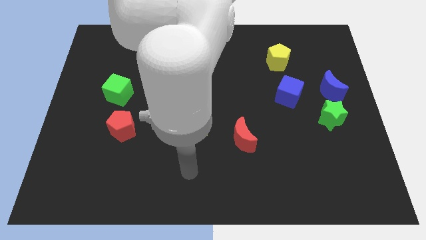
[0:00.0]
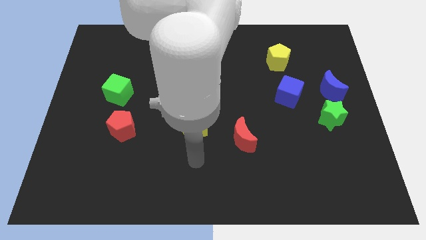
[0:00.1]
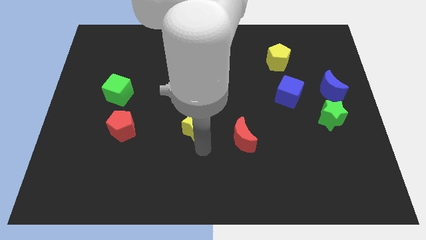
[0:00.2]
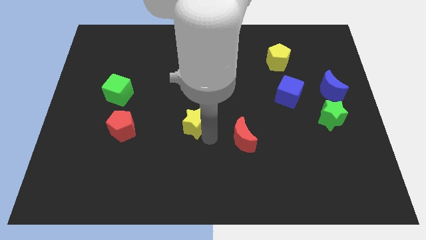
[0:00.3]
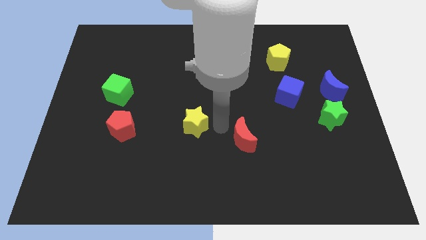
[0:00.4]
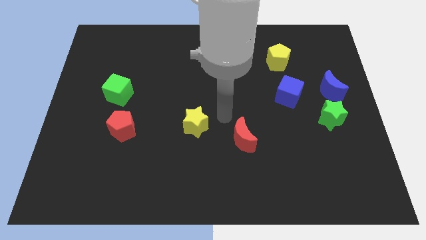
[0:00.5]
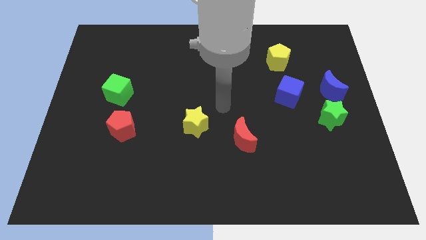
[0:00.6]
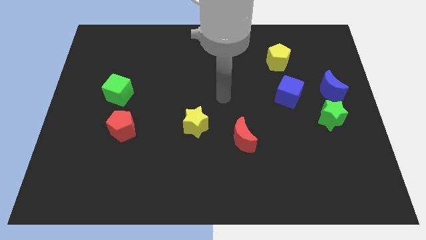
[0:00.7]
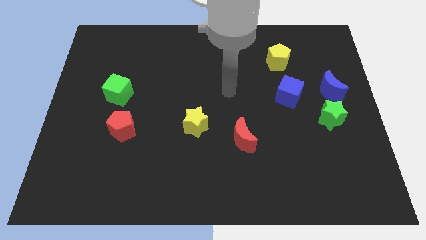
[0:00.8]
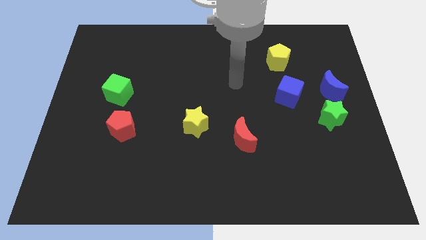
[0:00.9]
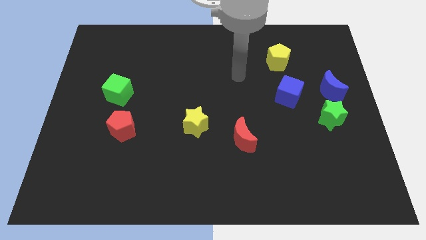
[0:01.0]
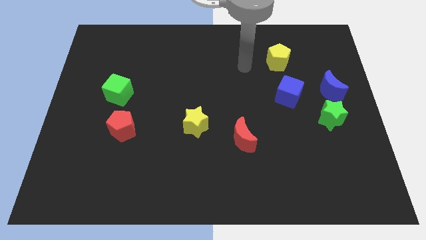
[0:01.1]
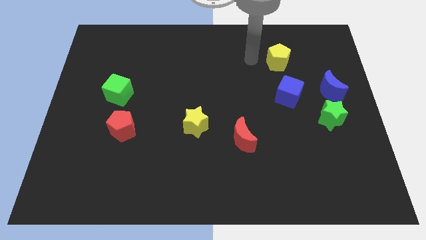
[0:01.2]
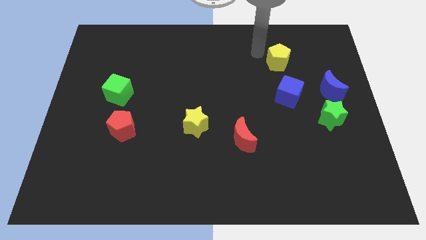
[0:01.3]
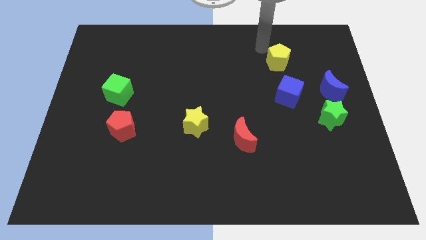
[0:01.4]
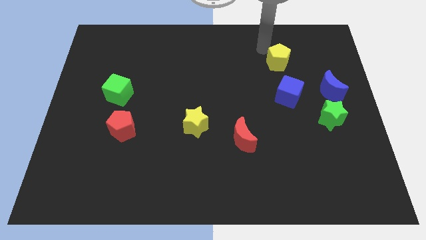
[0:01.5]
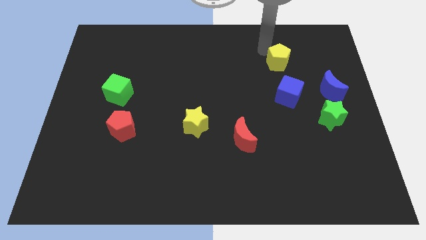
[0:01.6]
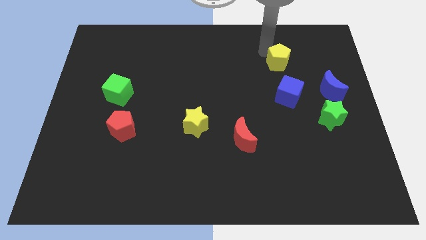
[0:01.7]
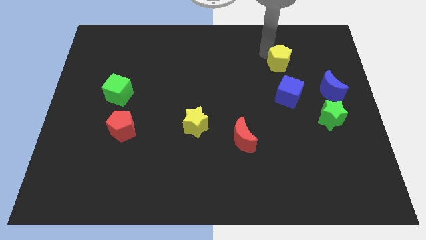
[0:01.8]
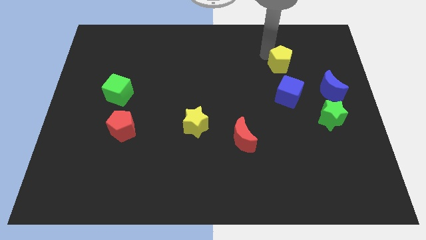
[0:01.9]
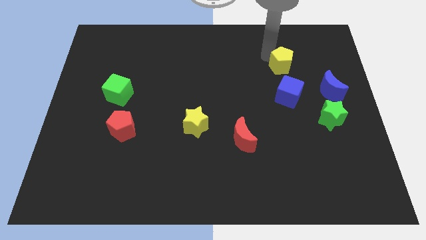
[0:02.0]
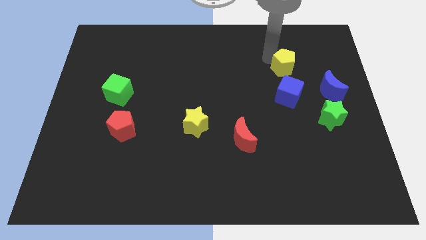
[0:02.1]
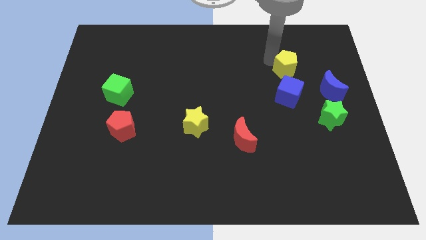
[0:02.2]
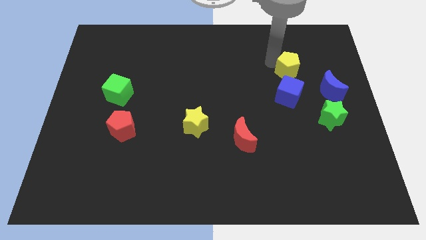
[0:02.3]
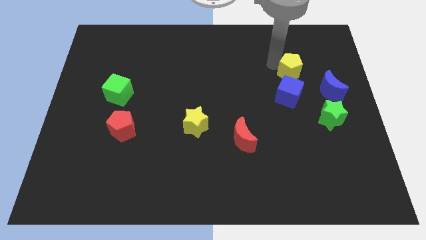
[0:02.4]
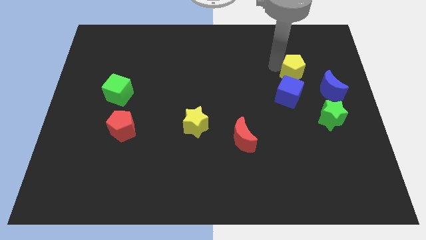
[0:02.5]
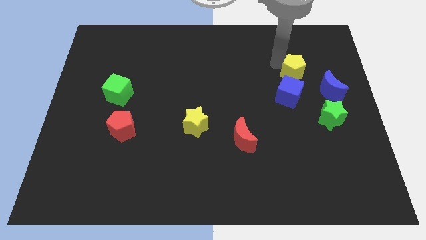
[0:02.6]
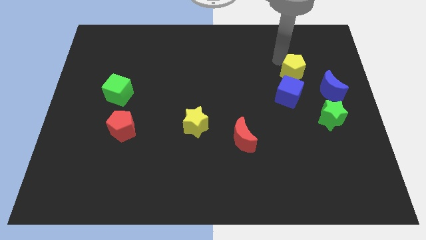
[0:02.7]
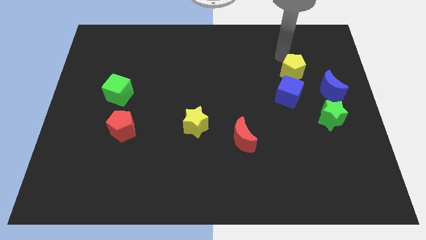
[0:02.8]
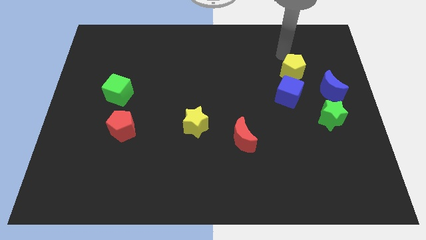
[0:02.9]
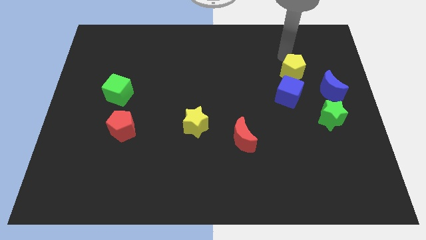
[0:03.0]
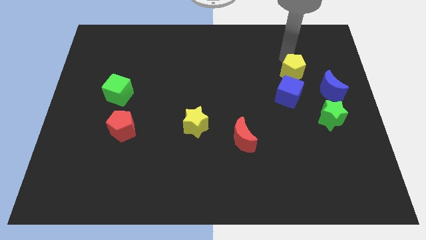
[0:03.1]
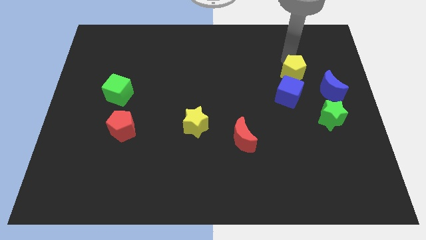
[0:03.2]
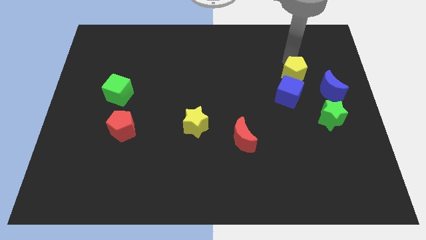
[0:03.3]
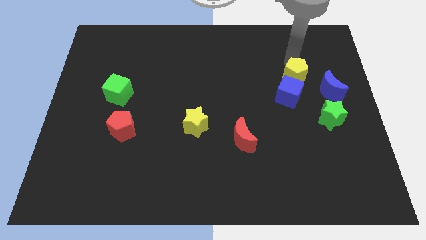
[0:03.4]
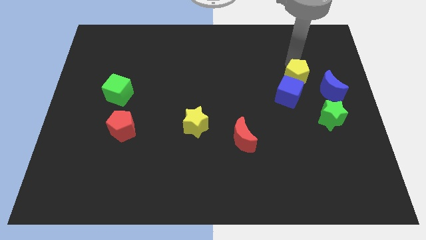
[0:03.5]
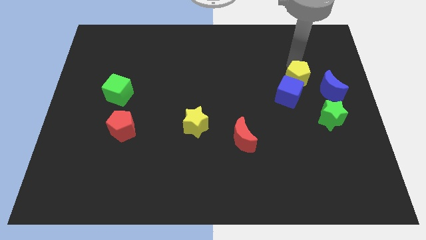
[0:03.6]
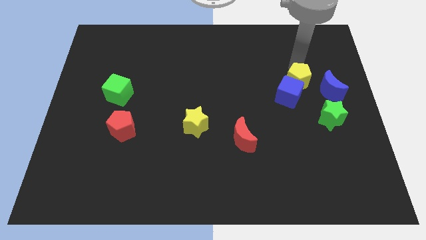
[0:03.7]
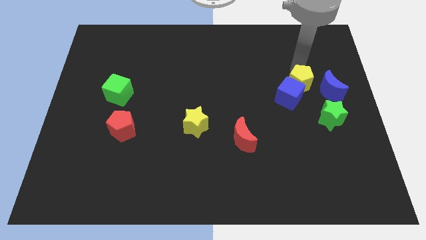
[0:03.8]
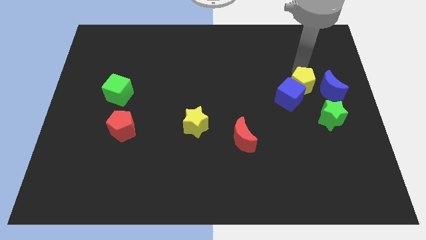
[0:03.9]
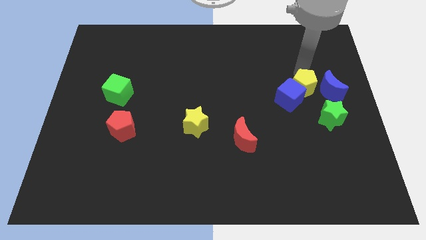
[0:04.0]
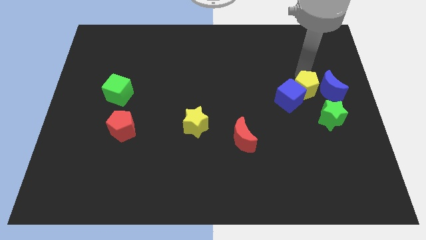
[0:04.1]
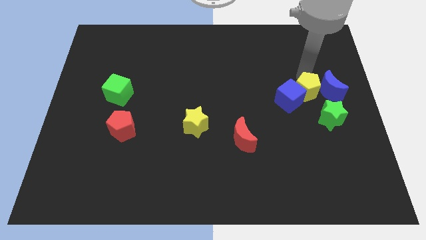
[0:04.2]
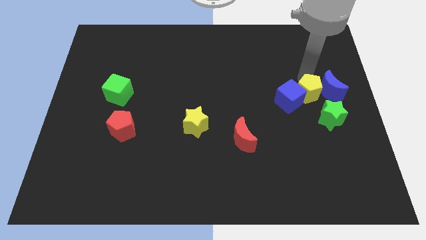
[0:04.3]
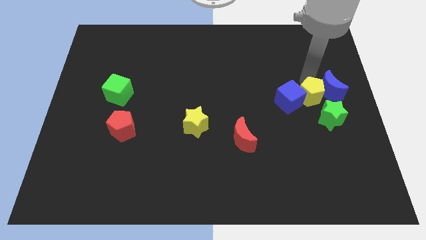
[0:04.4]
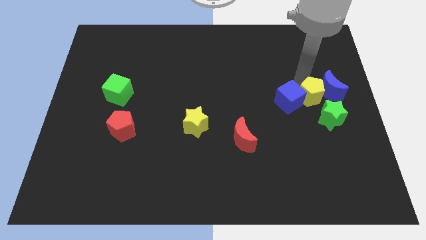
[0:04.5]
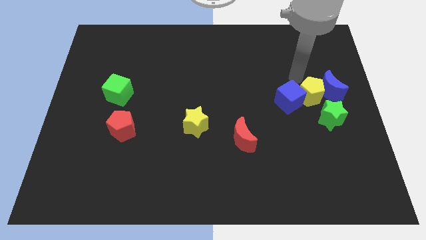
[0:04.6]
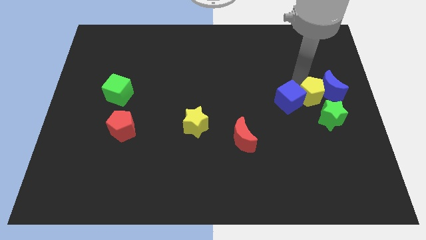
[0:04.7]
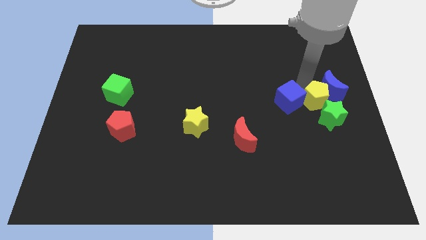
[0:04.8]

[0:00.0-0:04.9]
put the yellow pentagon close to the green star

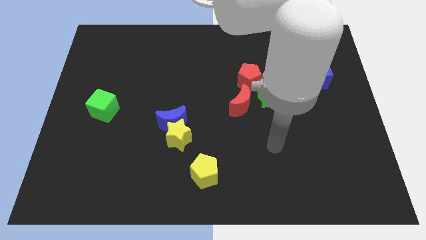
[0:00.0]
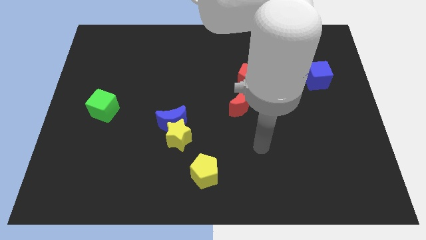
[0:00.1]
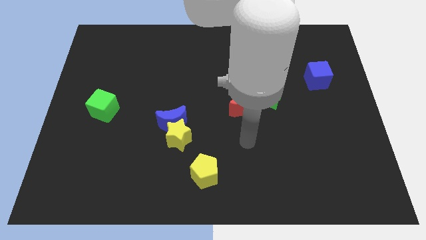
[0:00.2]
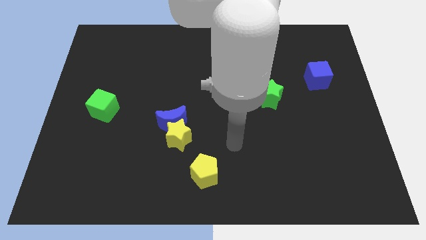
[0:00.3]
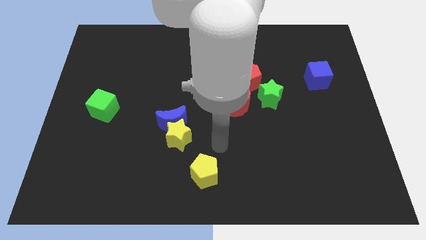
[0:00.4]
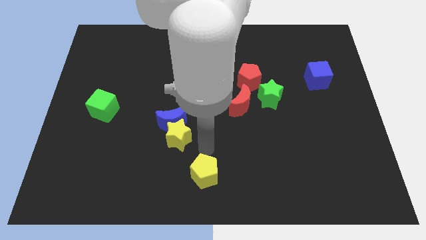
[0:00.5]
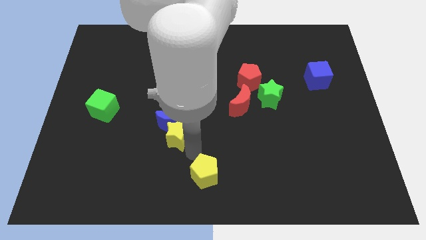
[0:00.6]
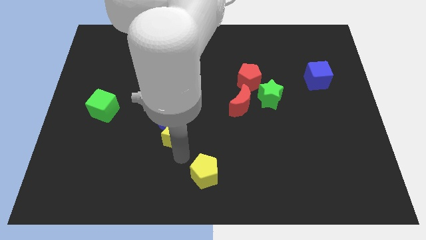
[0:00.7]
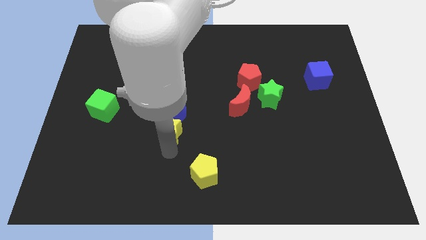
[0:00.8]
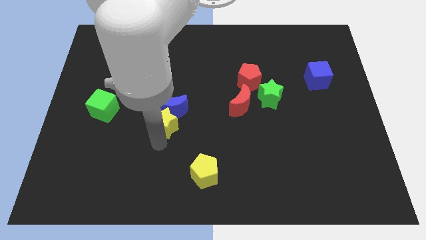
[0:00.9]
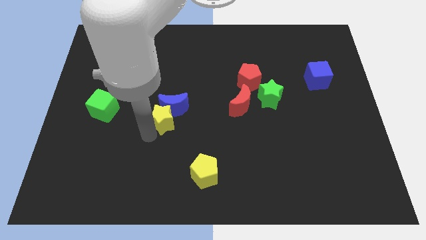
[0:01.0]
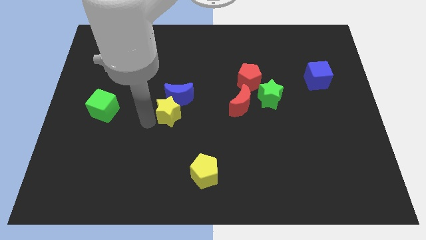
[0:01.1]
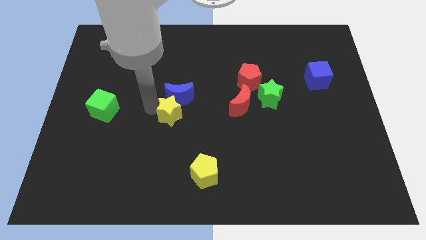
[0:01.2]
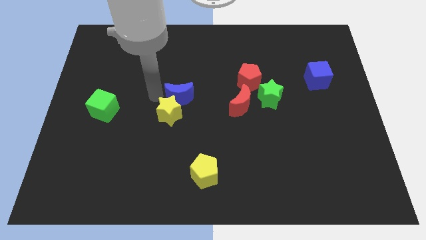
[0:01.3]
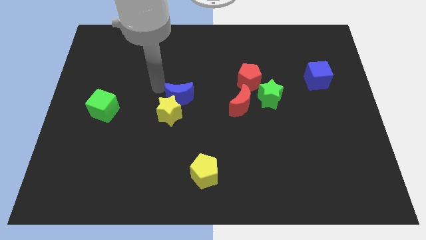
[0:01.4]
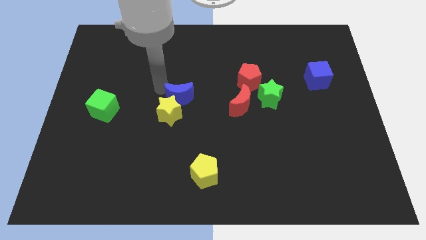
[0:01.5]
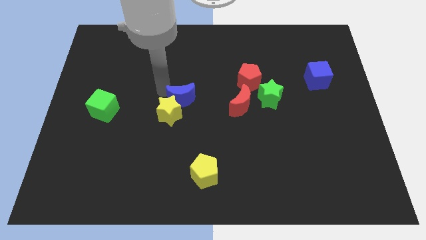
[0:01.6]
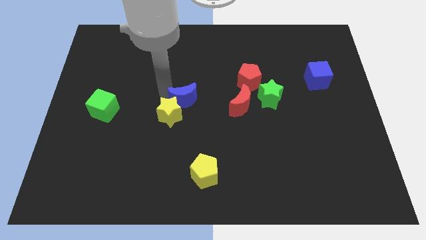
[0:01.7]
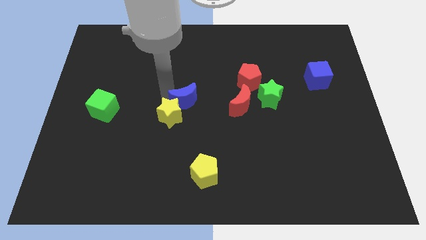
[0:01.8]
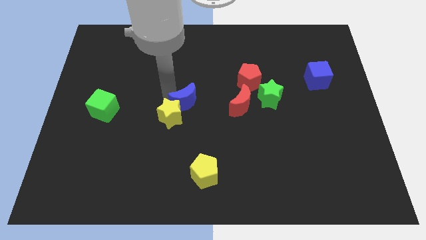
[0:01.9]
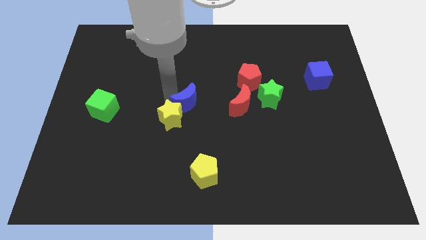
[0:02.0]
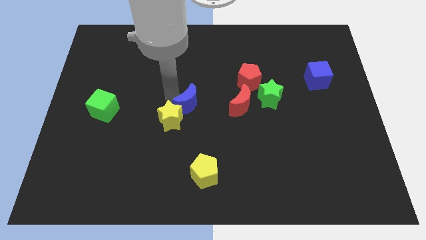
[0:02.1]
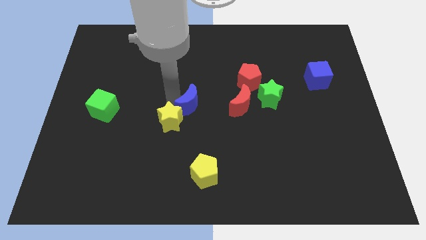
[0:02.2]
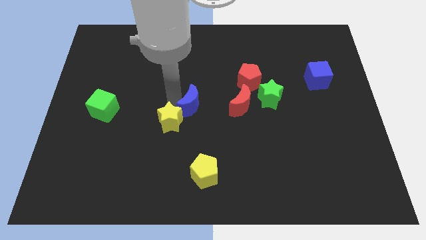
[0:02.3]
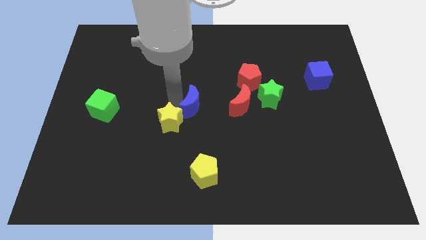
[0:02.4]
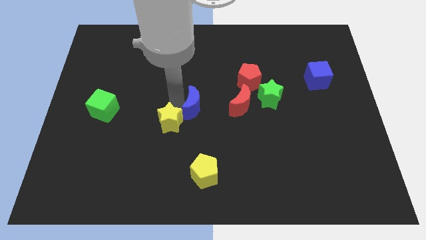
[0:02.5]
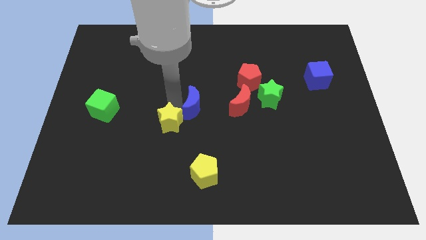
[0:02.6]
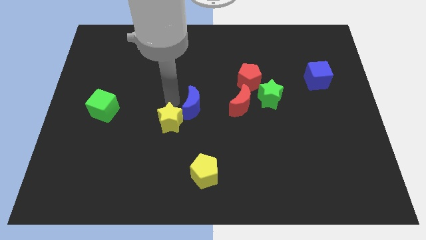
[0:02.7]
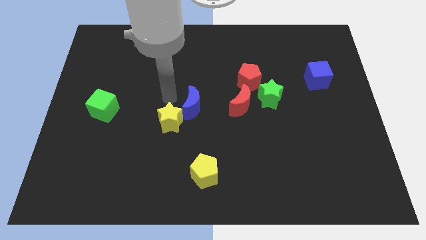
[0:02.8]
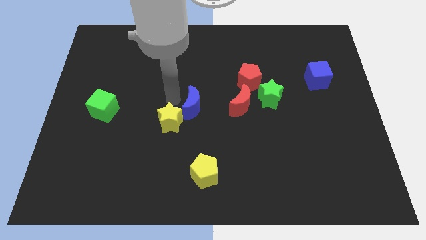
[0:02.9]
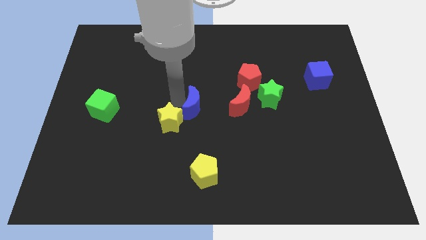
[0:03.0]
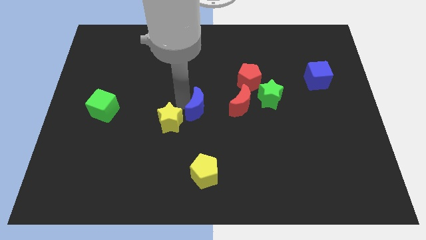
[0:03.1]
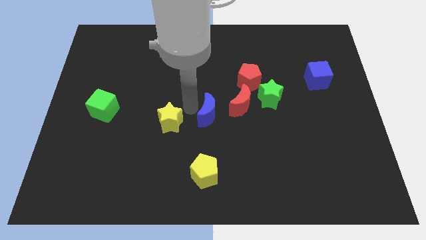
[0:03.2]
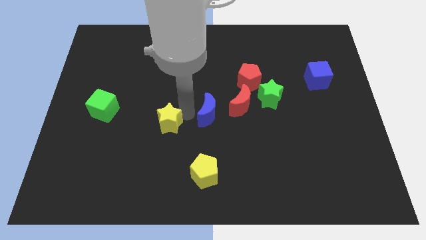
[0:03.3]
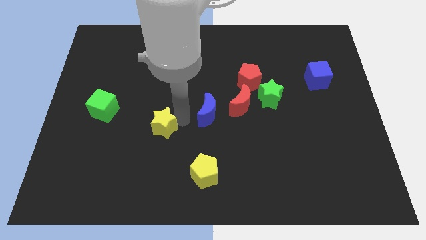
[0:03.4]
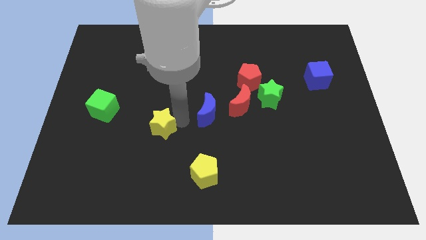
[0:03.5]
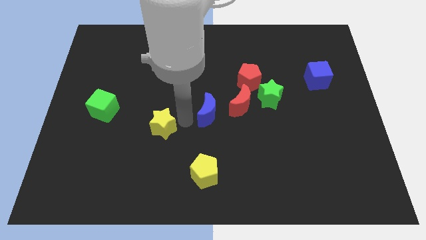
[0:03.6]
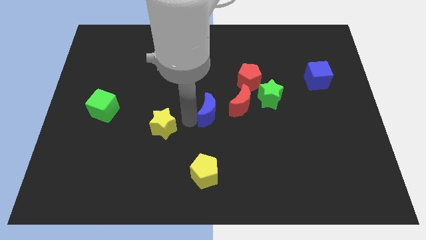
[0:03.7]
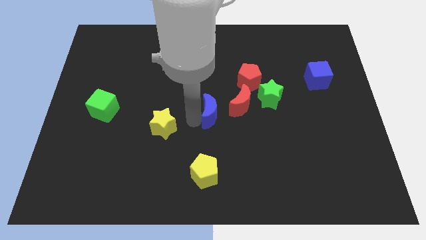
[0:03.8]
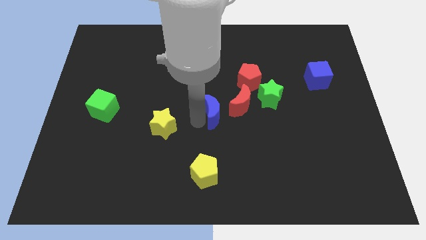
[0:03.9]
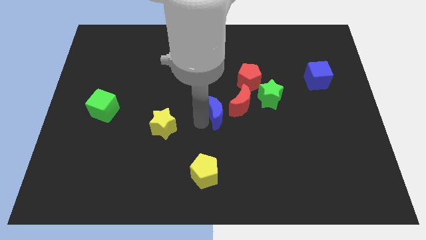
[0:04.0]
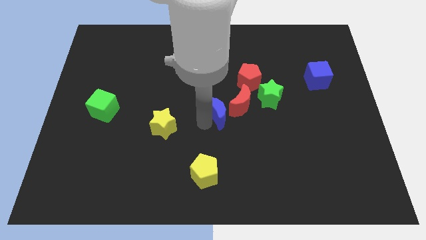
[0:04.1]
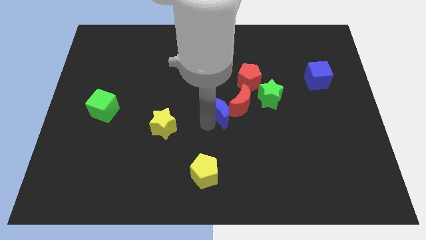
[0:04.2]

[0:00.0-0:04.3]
move the blue moon towards the red moon
